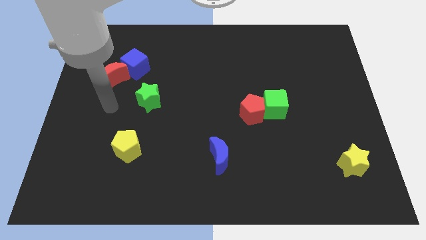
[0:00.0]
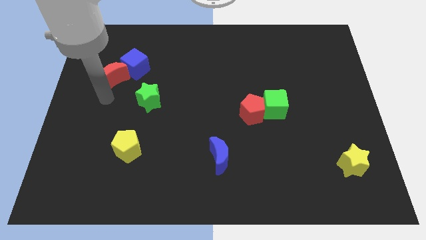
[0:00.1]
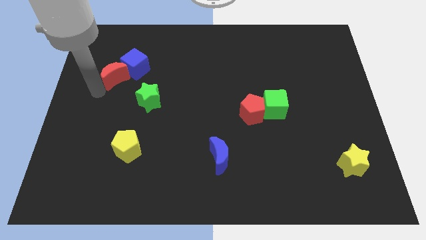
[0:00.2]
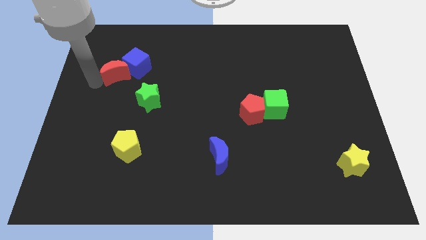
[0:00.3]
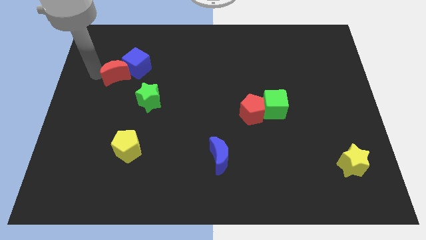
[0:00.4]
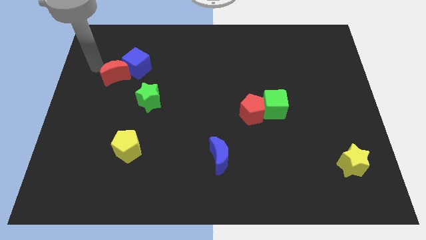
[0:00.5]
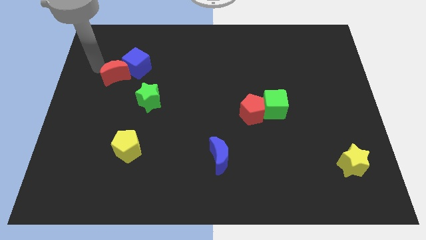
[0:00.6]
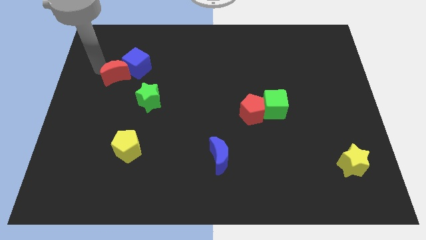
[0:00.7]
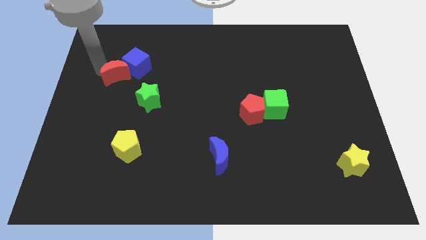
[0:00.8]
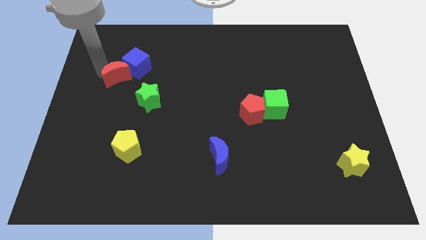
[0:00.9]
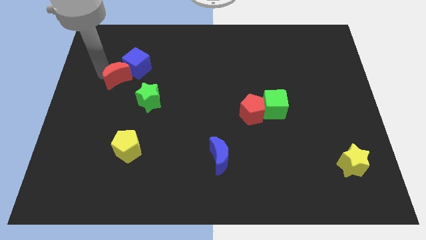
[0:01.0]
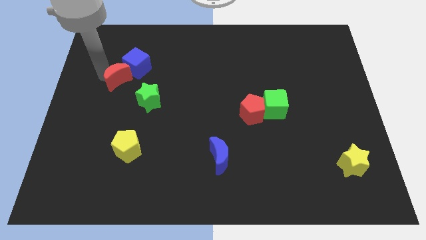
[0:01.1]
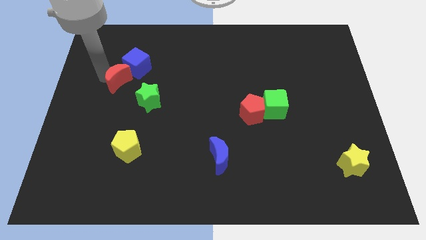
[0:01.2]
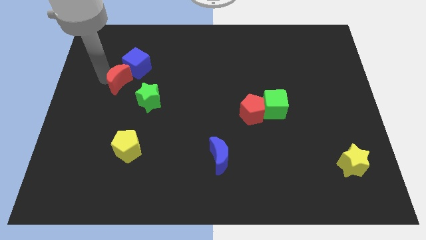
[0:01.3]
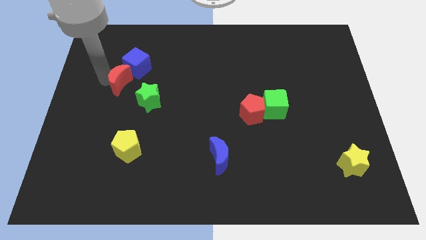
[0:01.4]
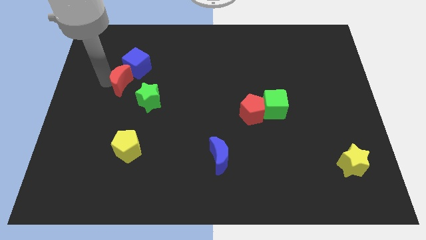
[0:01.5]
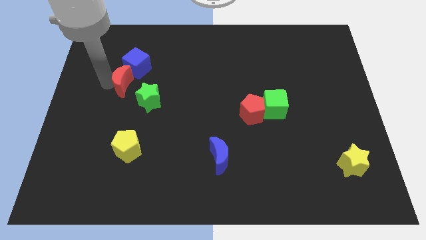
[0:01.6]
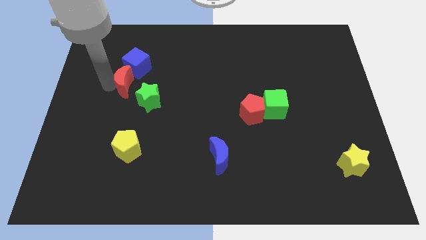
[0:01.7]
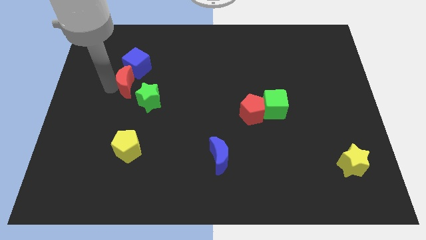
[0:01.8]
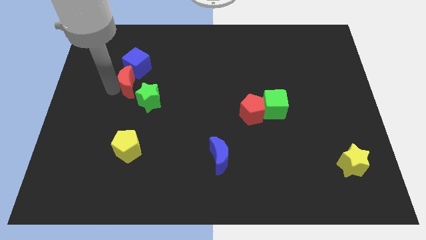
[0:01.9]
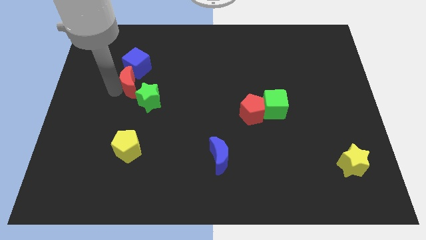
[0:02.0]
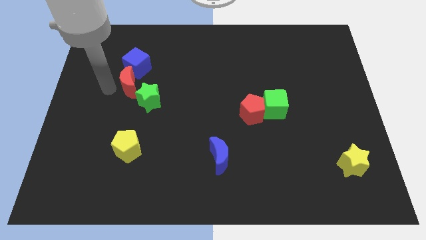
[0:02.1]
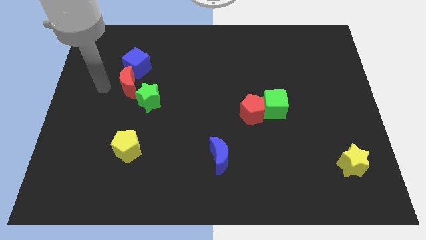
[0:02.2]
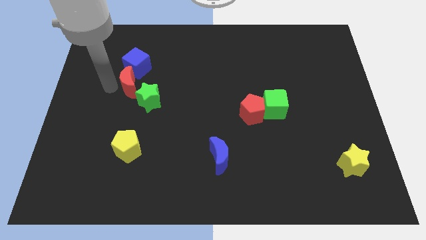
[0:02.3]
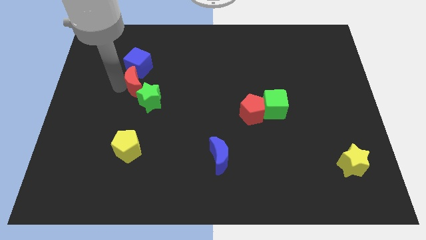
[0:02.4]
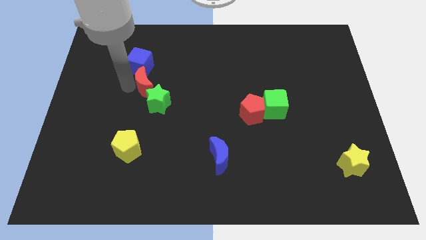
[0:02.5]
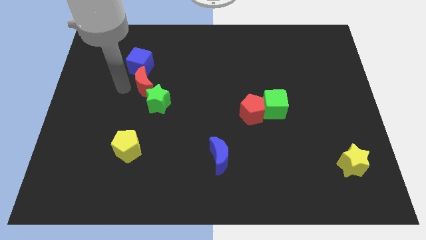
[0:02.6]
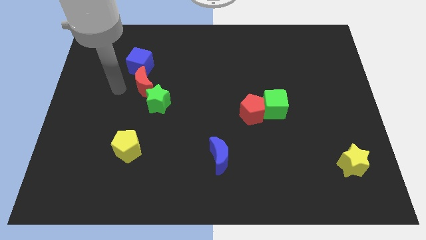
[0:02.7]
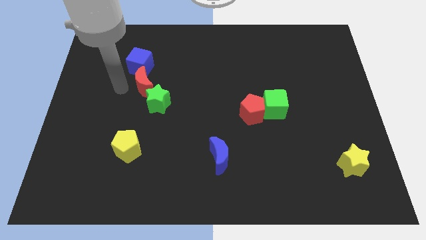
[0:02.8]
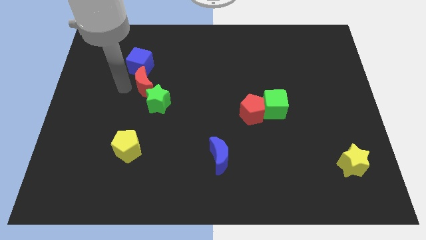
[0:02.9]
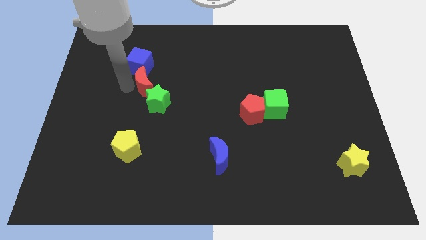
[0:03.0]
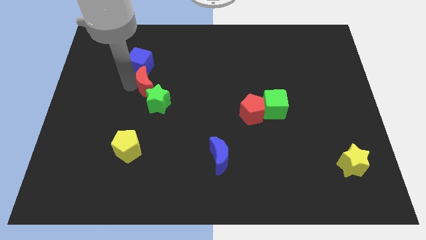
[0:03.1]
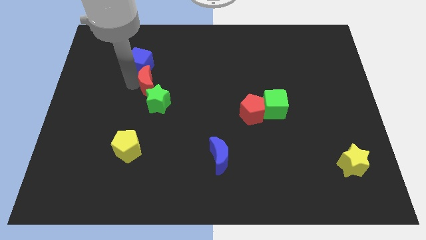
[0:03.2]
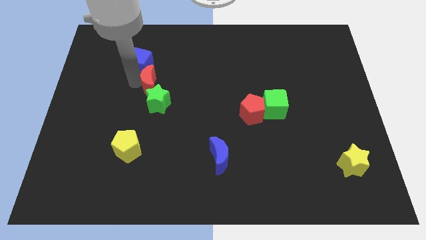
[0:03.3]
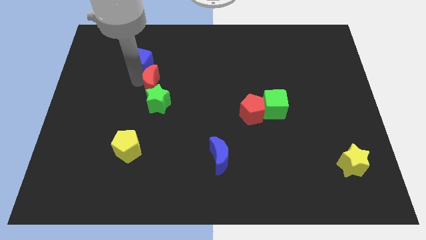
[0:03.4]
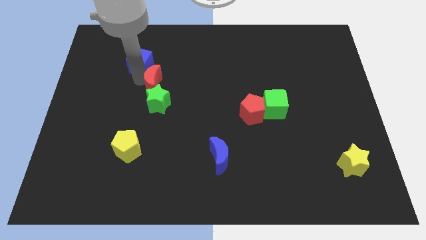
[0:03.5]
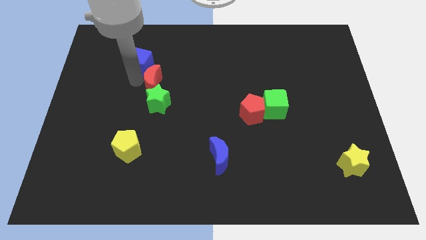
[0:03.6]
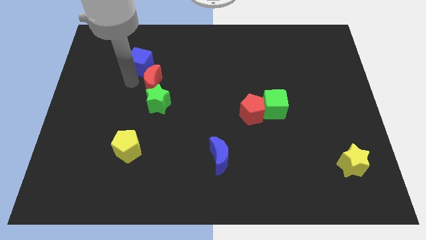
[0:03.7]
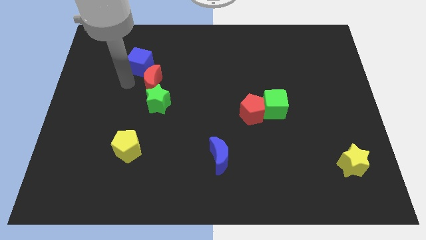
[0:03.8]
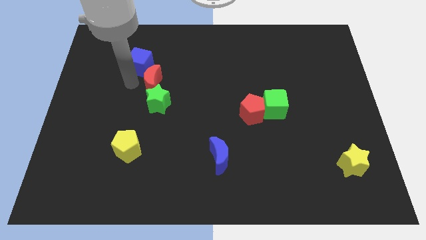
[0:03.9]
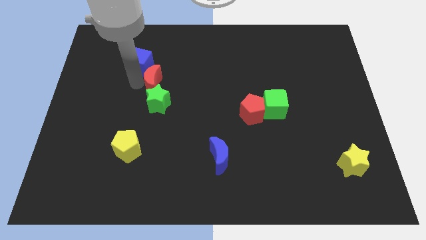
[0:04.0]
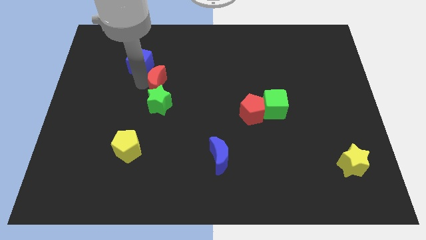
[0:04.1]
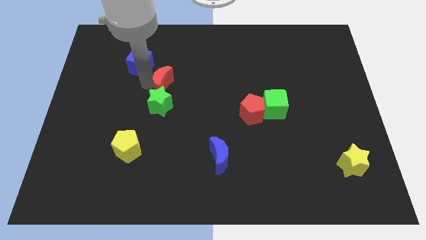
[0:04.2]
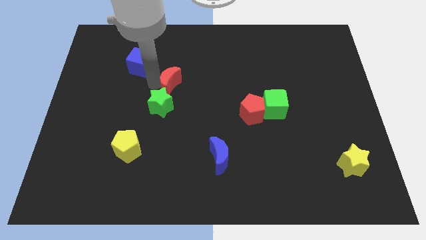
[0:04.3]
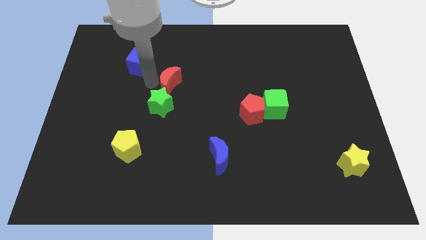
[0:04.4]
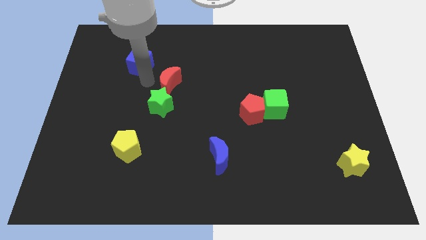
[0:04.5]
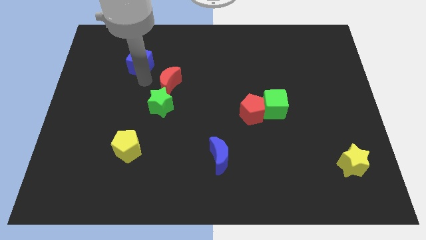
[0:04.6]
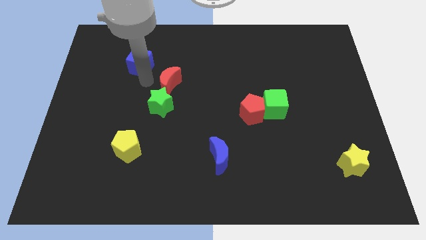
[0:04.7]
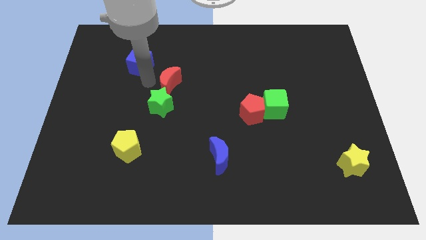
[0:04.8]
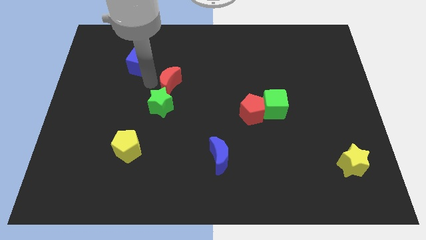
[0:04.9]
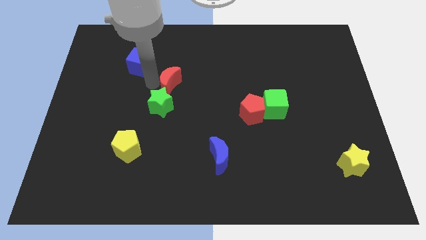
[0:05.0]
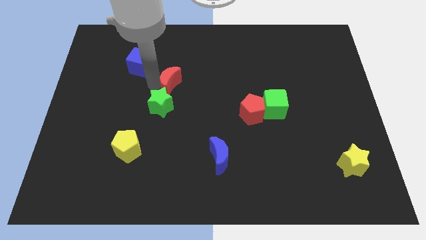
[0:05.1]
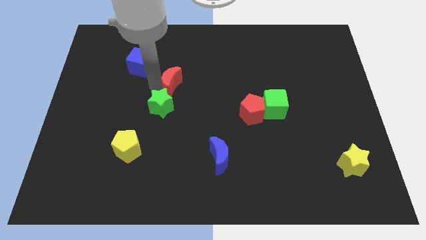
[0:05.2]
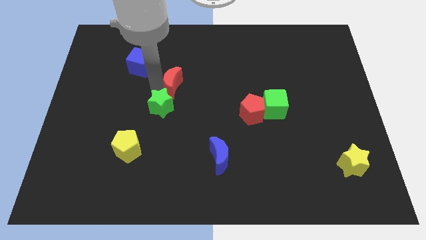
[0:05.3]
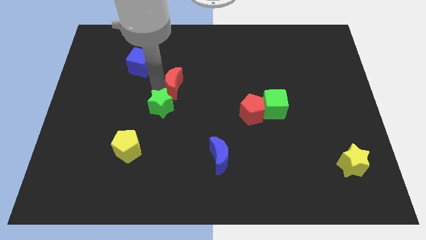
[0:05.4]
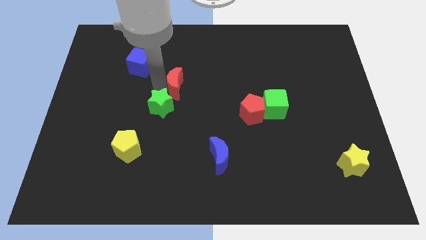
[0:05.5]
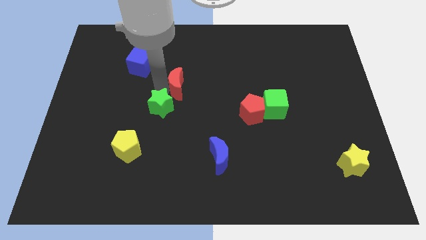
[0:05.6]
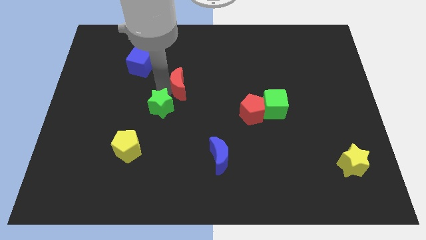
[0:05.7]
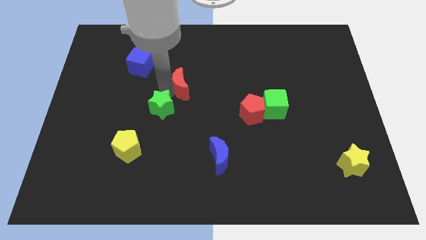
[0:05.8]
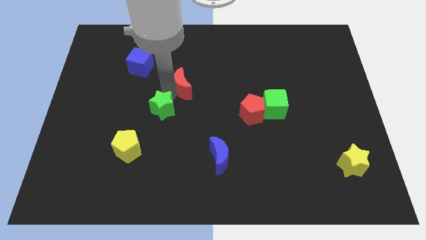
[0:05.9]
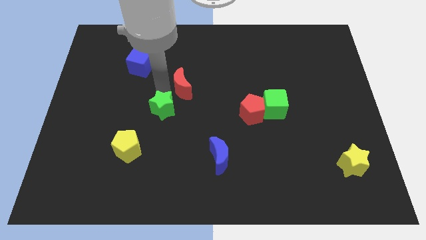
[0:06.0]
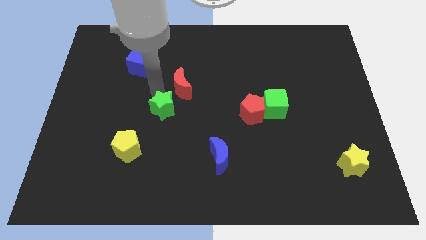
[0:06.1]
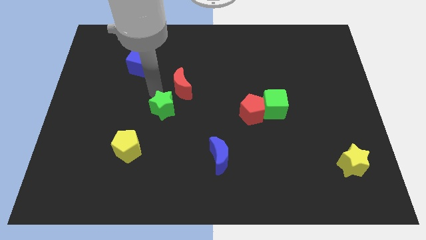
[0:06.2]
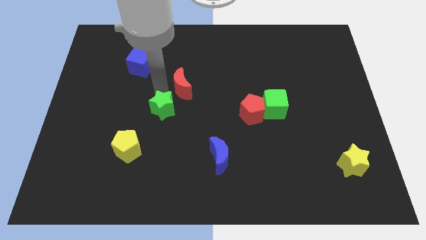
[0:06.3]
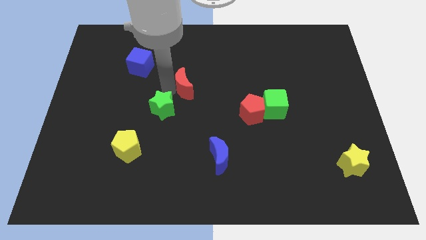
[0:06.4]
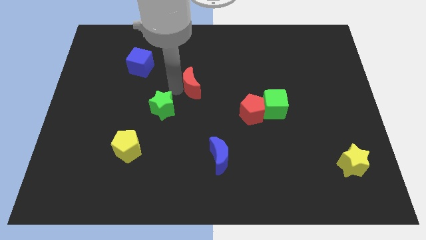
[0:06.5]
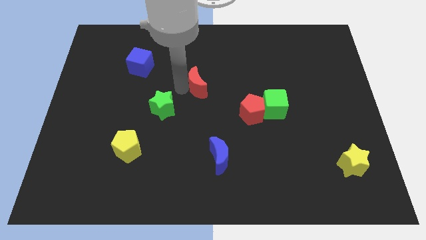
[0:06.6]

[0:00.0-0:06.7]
push the red moon right

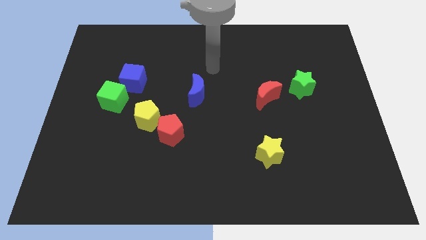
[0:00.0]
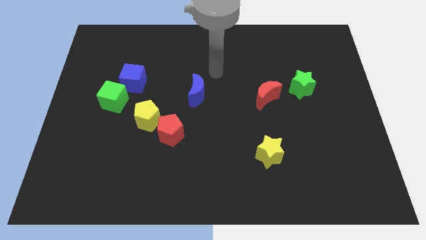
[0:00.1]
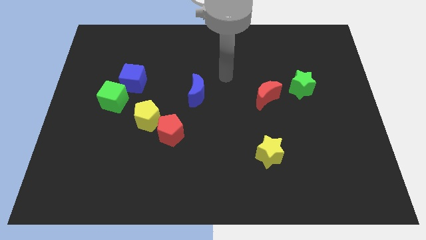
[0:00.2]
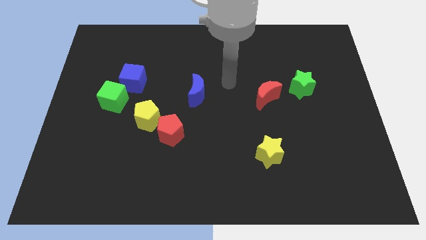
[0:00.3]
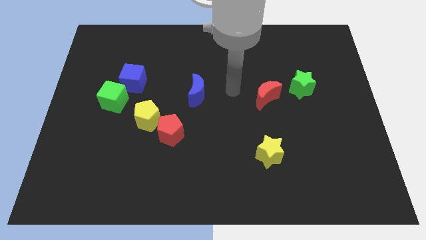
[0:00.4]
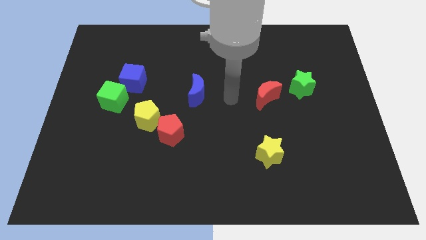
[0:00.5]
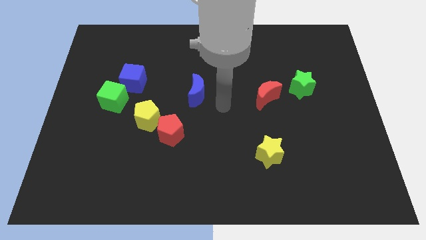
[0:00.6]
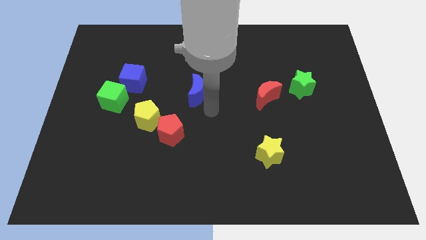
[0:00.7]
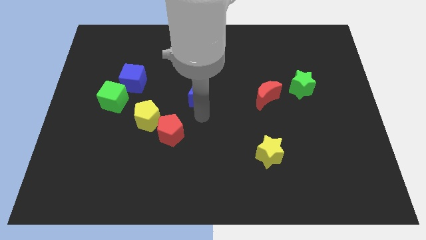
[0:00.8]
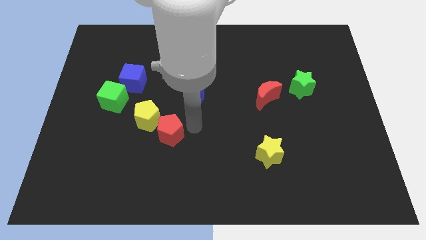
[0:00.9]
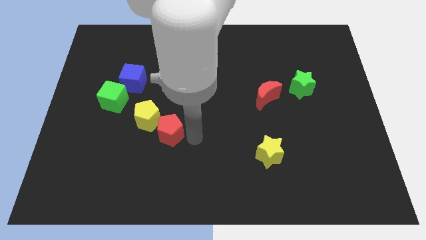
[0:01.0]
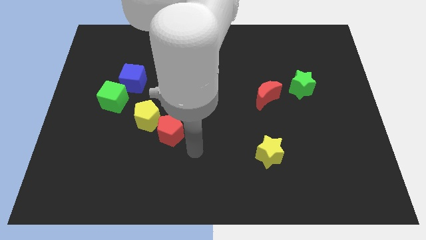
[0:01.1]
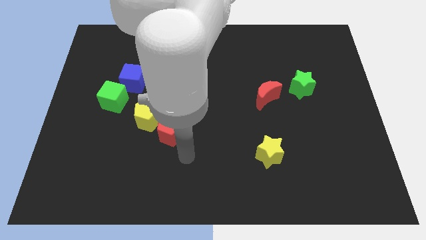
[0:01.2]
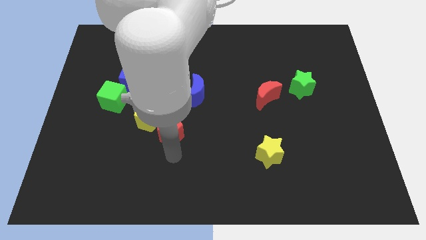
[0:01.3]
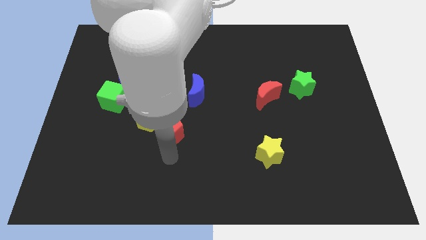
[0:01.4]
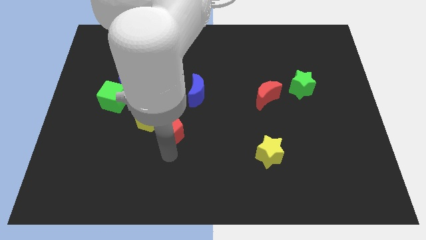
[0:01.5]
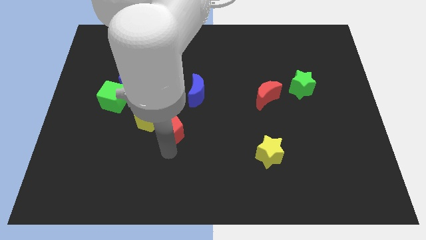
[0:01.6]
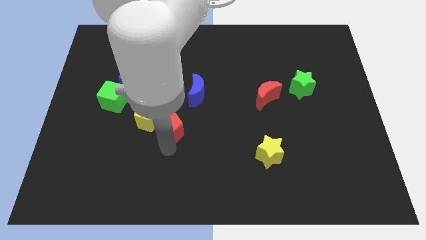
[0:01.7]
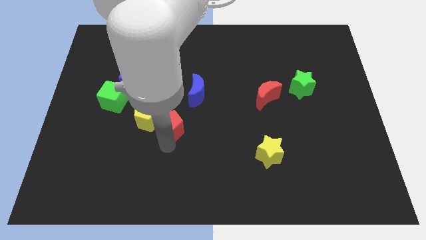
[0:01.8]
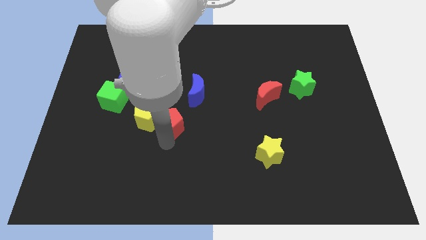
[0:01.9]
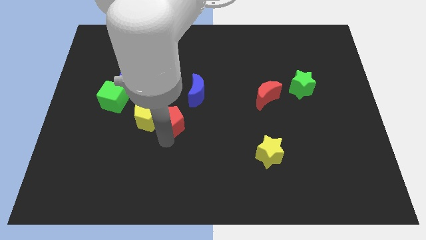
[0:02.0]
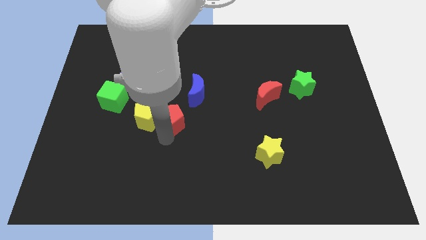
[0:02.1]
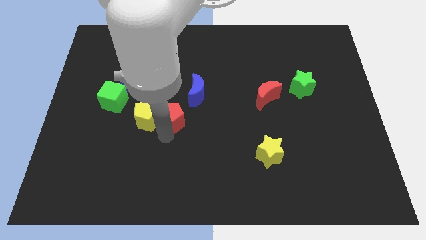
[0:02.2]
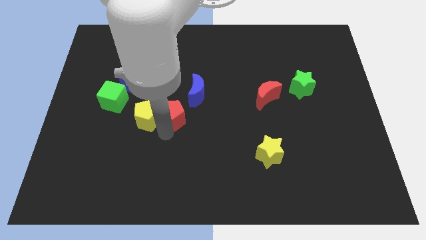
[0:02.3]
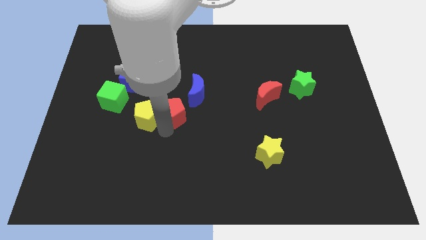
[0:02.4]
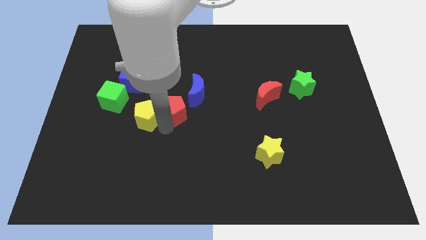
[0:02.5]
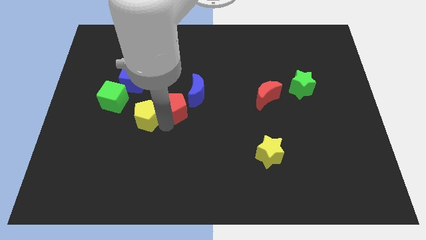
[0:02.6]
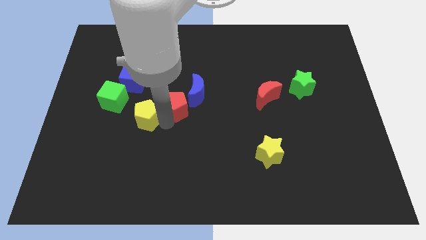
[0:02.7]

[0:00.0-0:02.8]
slightly slide the red pentagon upwards
